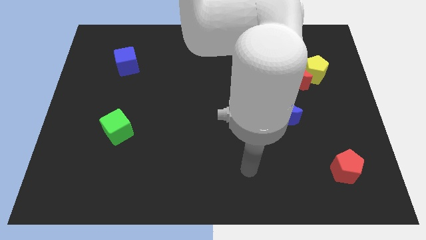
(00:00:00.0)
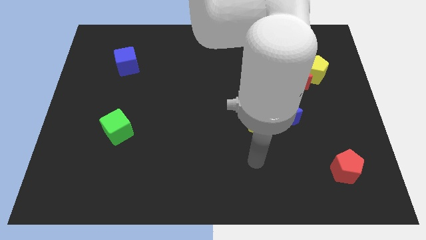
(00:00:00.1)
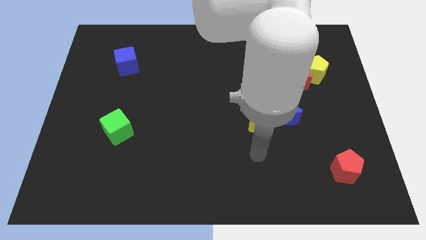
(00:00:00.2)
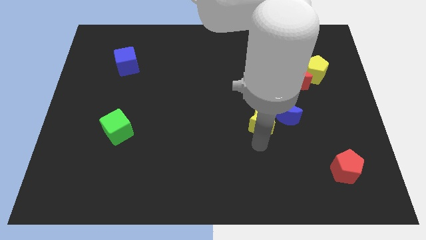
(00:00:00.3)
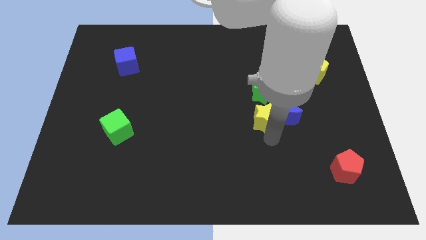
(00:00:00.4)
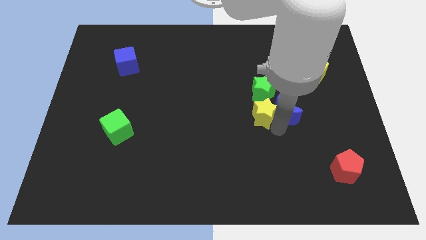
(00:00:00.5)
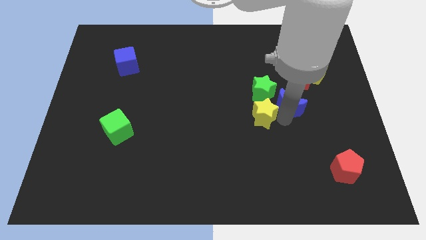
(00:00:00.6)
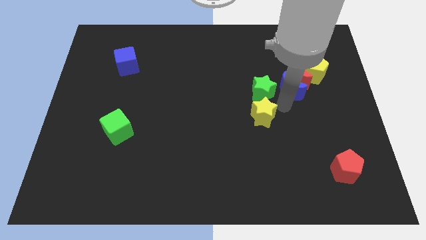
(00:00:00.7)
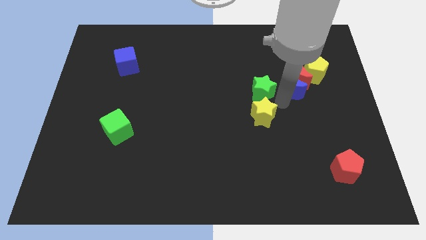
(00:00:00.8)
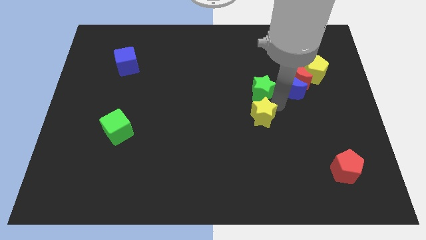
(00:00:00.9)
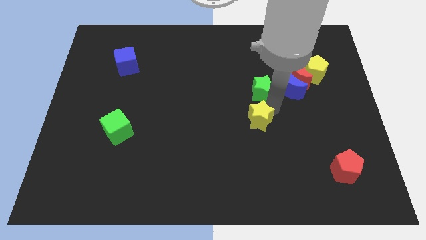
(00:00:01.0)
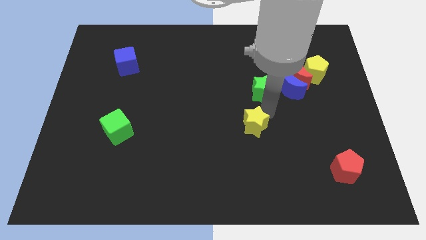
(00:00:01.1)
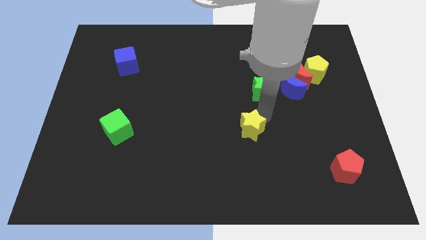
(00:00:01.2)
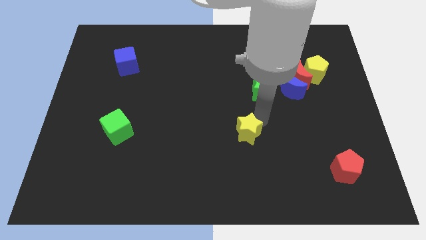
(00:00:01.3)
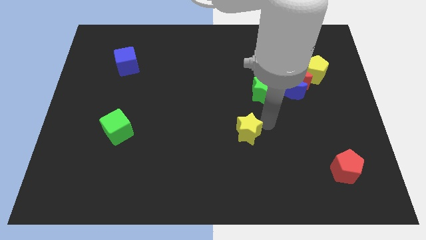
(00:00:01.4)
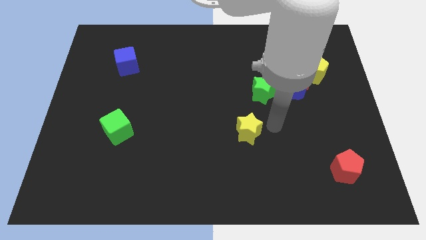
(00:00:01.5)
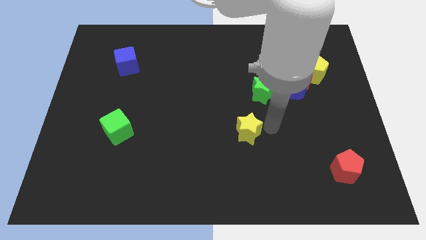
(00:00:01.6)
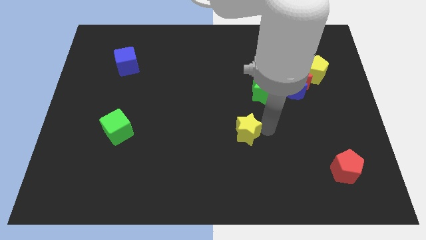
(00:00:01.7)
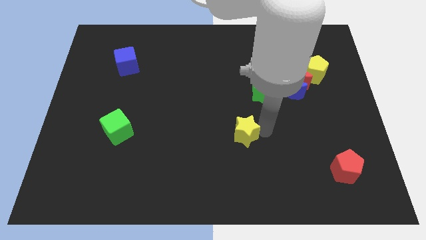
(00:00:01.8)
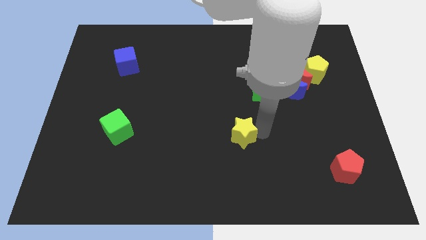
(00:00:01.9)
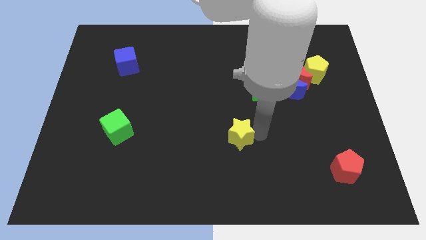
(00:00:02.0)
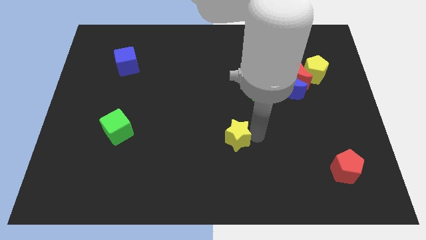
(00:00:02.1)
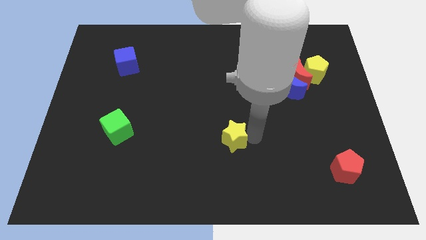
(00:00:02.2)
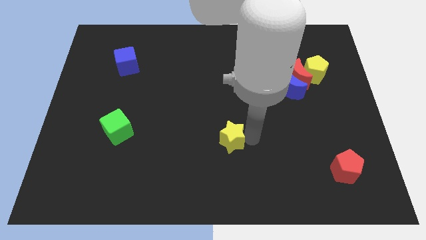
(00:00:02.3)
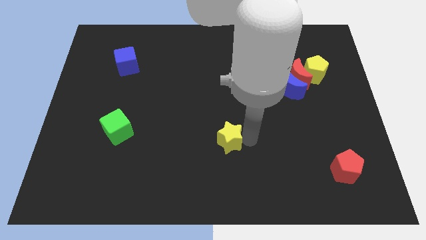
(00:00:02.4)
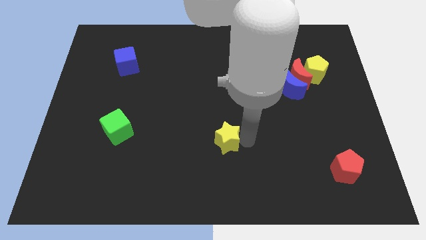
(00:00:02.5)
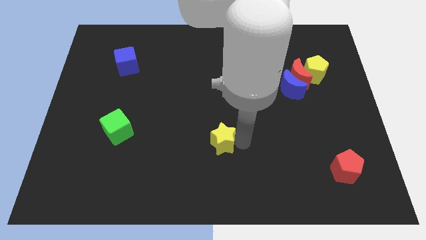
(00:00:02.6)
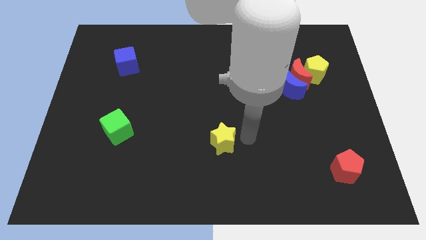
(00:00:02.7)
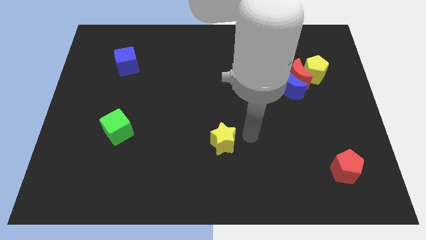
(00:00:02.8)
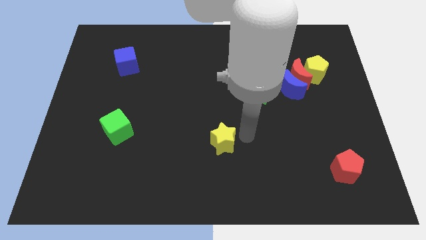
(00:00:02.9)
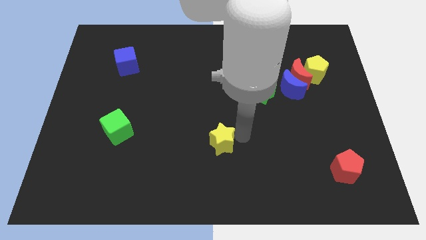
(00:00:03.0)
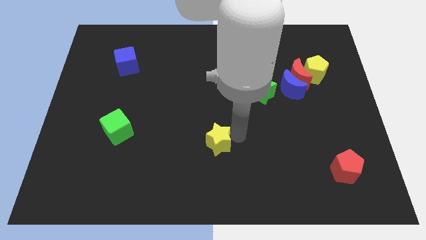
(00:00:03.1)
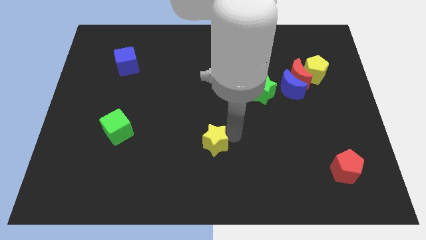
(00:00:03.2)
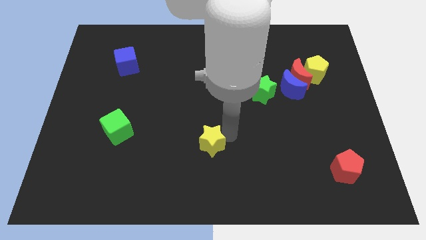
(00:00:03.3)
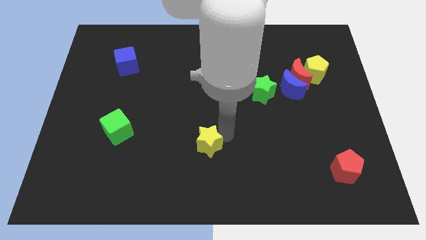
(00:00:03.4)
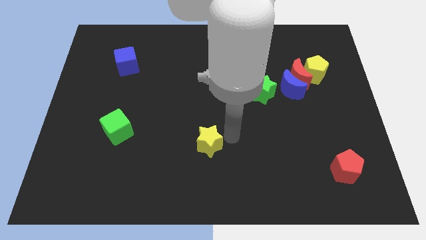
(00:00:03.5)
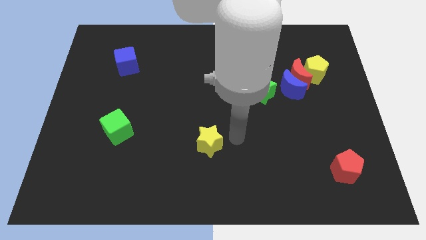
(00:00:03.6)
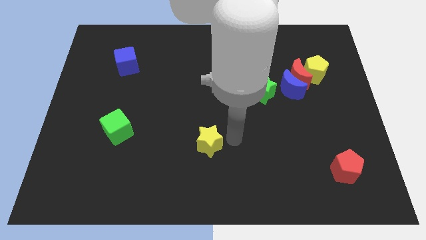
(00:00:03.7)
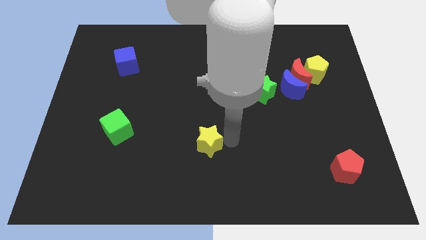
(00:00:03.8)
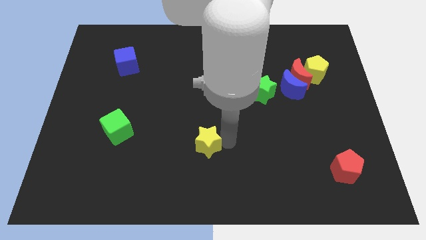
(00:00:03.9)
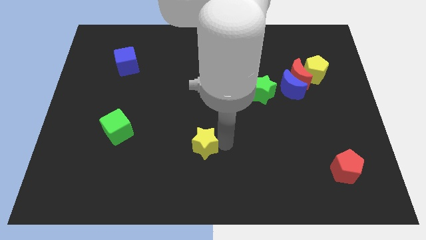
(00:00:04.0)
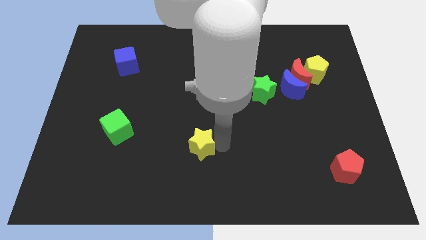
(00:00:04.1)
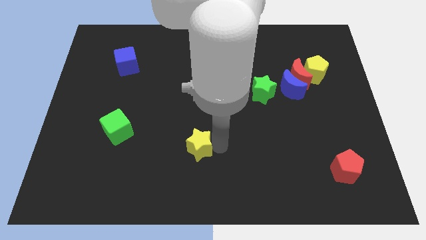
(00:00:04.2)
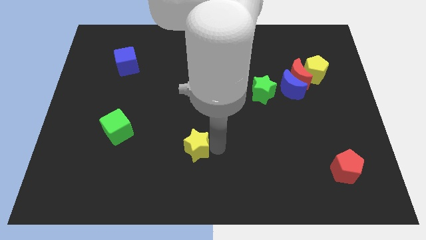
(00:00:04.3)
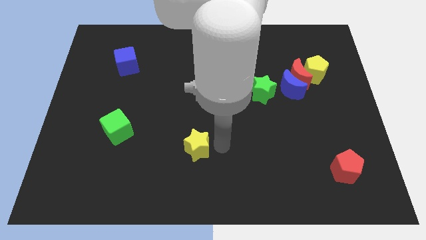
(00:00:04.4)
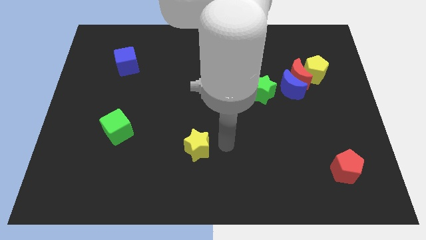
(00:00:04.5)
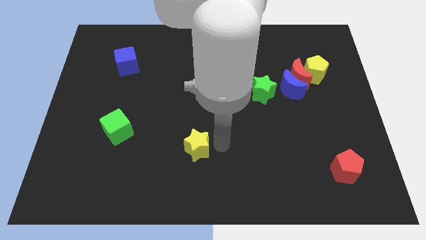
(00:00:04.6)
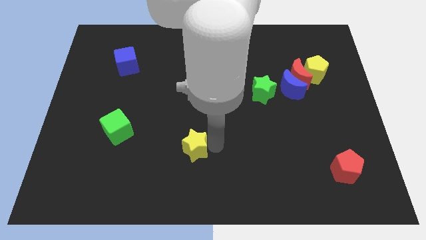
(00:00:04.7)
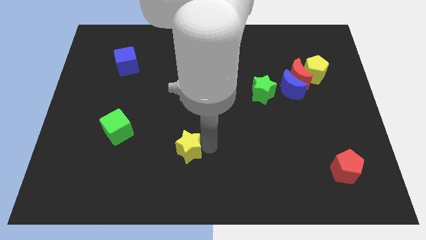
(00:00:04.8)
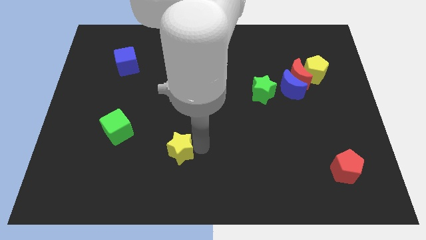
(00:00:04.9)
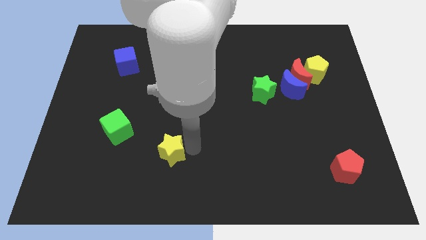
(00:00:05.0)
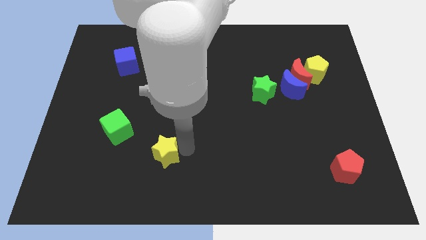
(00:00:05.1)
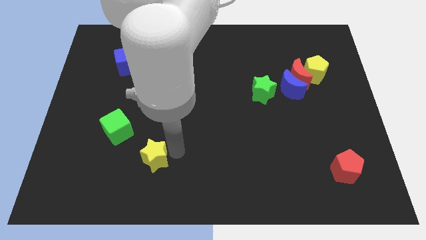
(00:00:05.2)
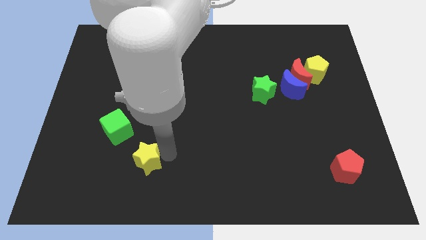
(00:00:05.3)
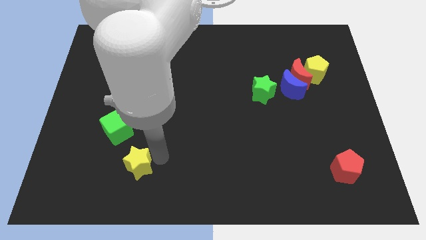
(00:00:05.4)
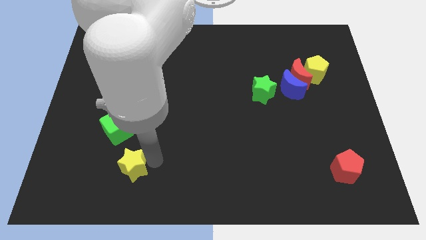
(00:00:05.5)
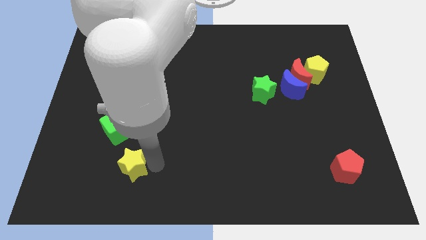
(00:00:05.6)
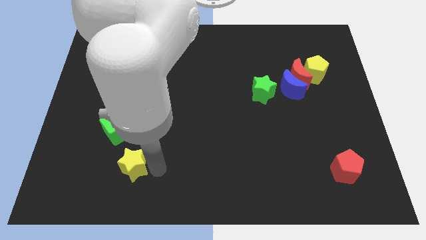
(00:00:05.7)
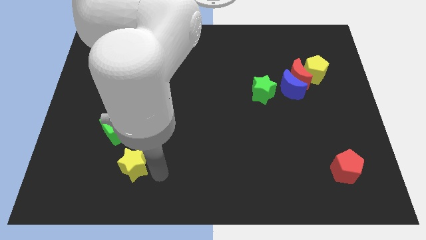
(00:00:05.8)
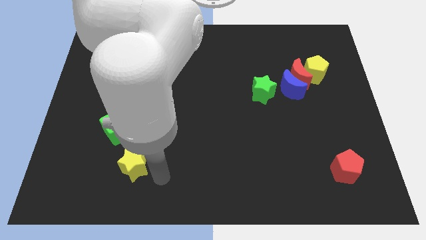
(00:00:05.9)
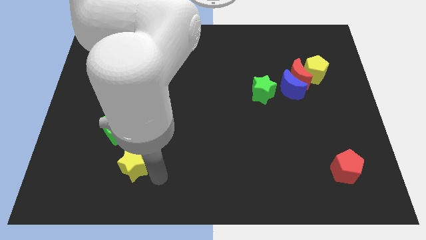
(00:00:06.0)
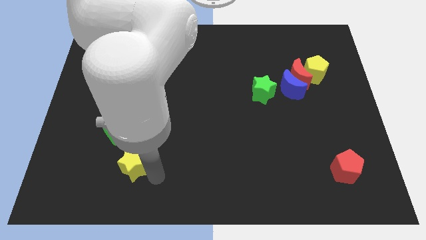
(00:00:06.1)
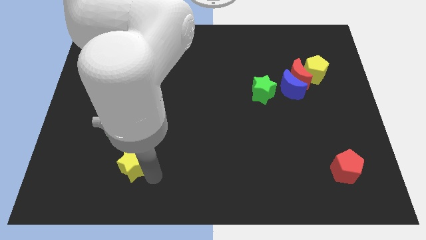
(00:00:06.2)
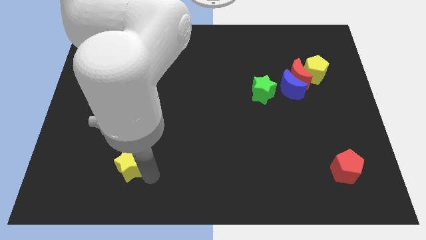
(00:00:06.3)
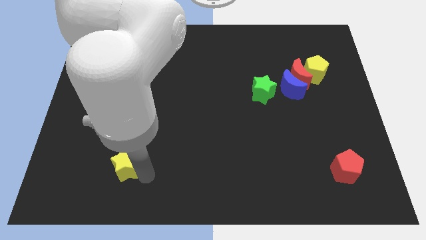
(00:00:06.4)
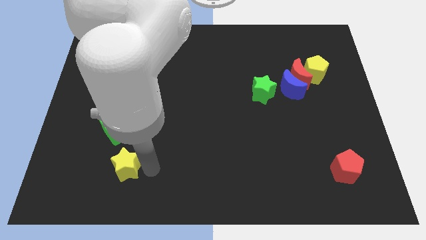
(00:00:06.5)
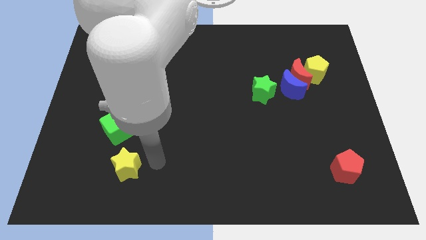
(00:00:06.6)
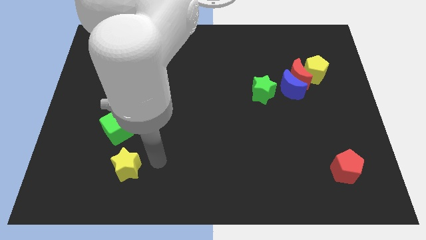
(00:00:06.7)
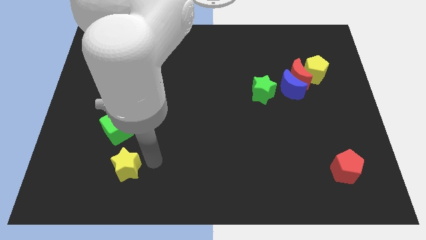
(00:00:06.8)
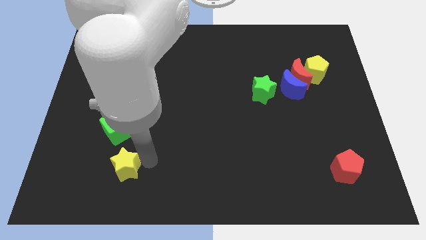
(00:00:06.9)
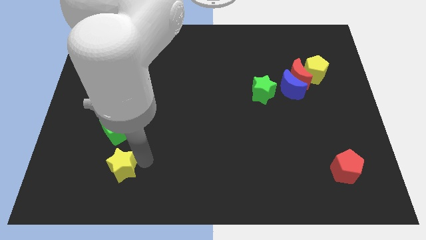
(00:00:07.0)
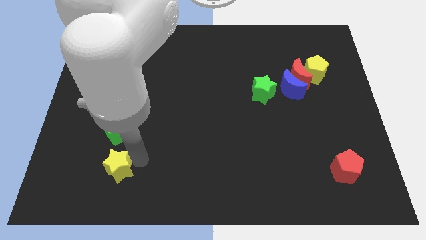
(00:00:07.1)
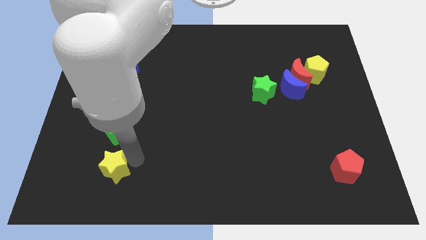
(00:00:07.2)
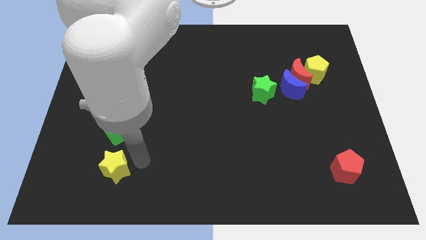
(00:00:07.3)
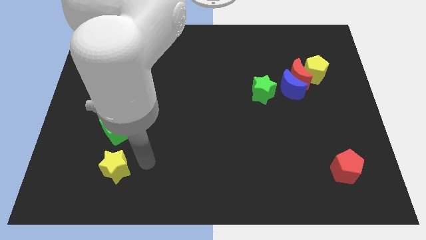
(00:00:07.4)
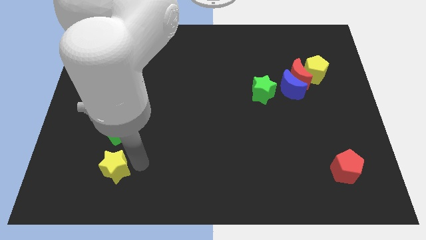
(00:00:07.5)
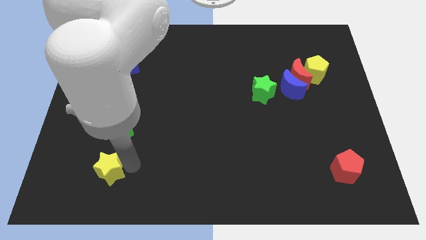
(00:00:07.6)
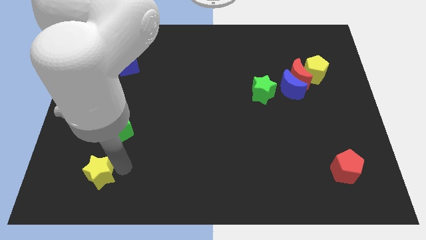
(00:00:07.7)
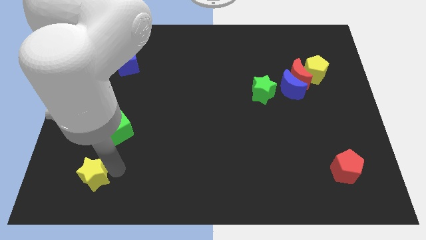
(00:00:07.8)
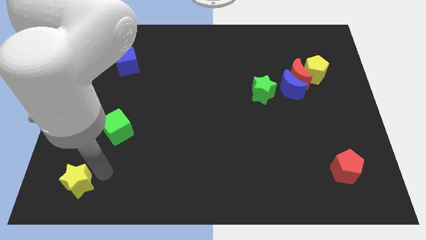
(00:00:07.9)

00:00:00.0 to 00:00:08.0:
slide the yellow star to the lower left corner
